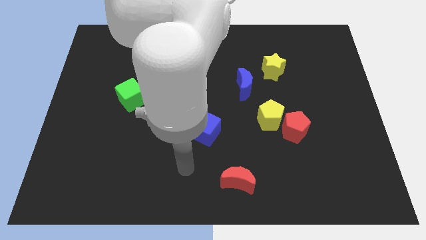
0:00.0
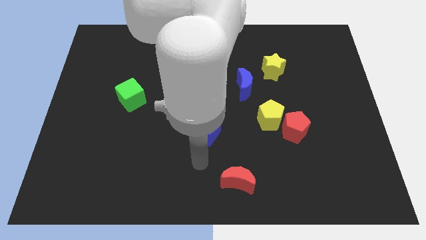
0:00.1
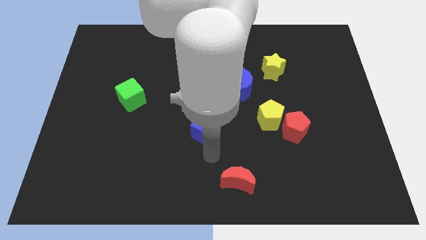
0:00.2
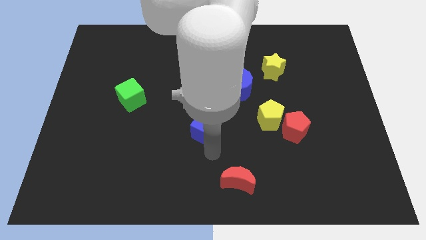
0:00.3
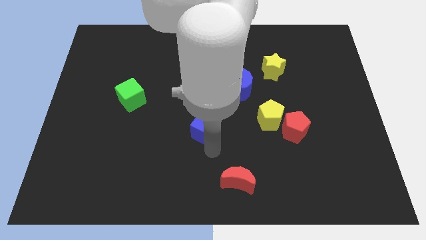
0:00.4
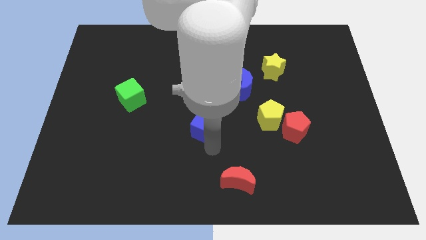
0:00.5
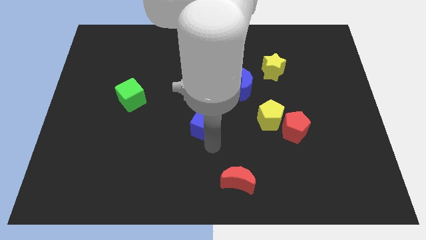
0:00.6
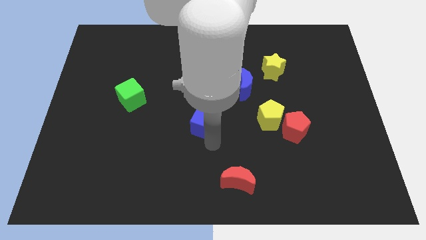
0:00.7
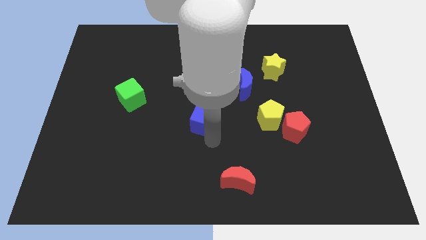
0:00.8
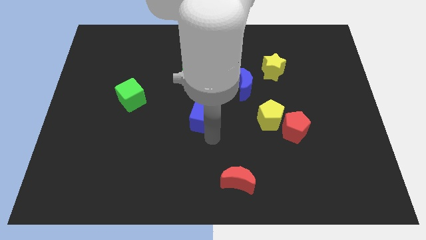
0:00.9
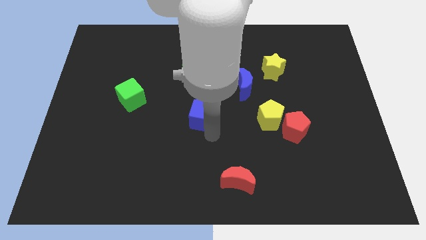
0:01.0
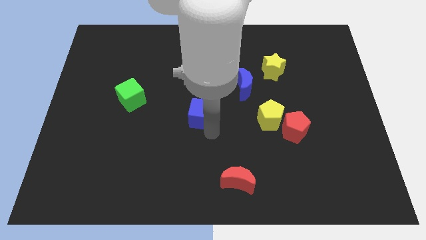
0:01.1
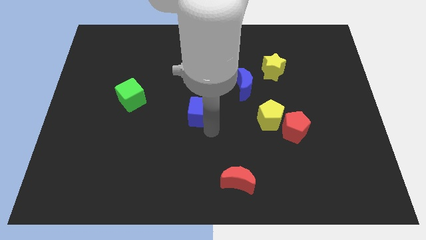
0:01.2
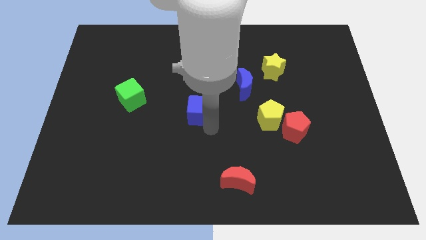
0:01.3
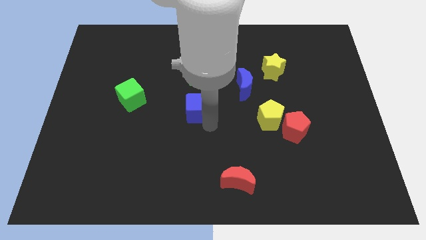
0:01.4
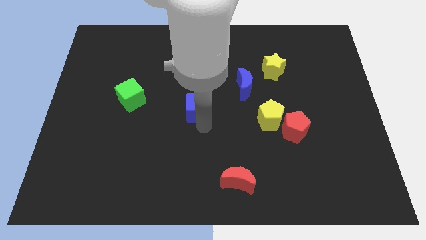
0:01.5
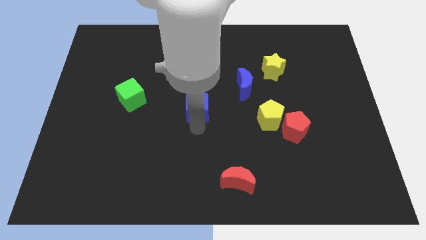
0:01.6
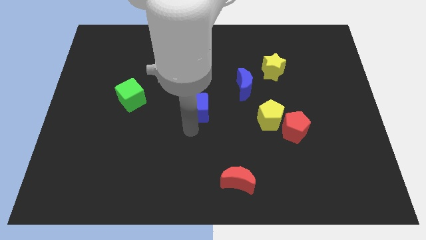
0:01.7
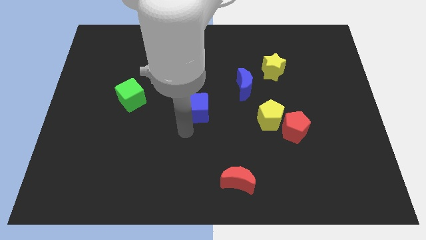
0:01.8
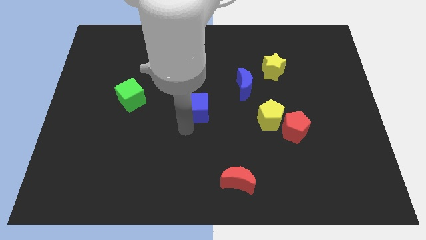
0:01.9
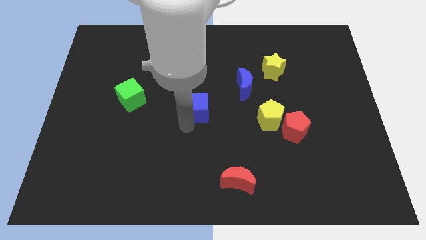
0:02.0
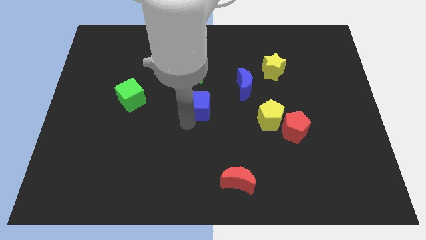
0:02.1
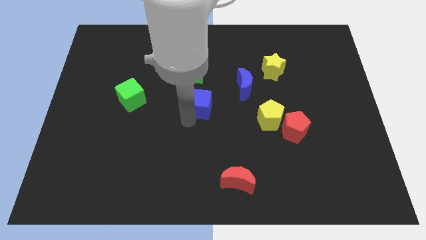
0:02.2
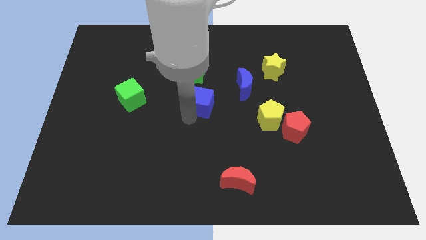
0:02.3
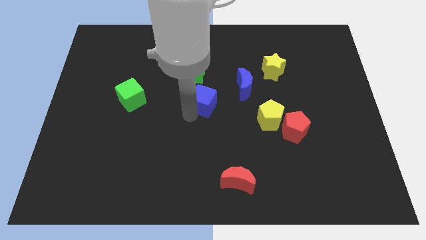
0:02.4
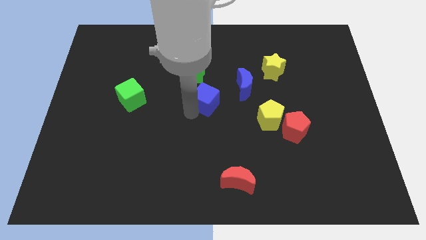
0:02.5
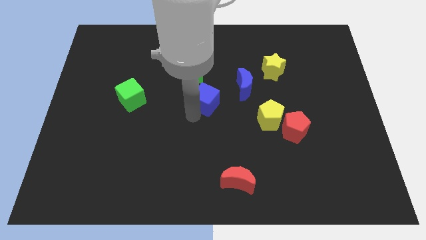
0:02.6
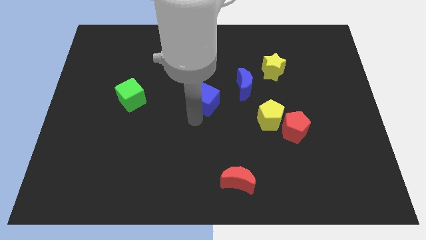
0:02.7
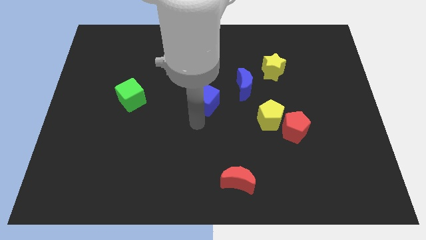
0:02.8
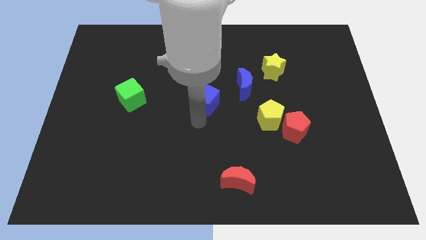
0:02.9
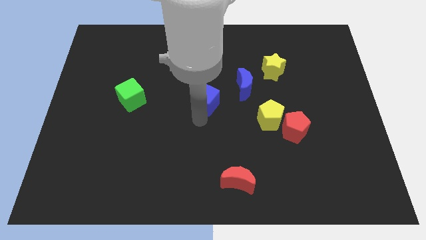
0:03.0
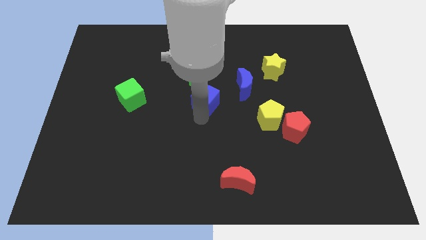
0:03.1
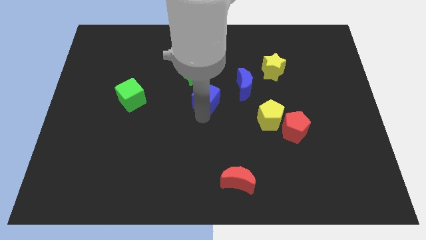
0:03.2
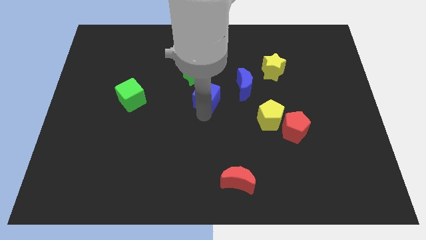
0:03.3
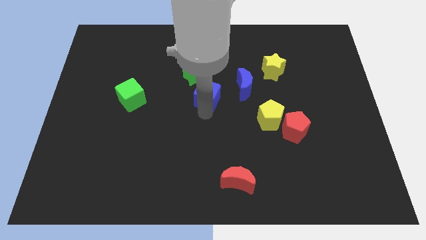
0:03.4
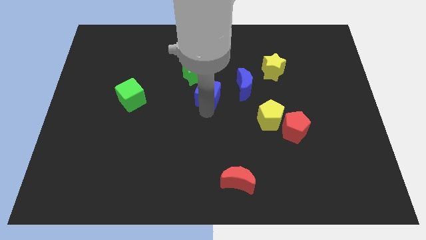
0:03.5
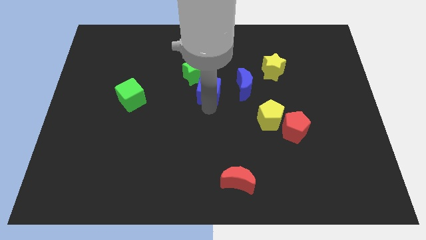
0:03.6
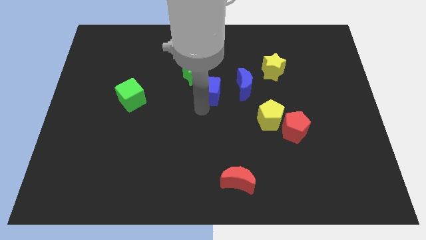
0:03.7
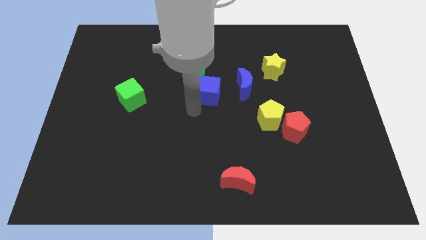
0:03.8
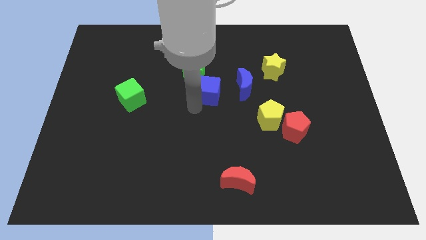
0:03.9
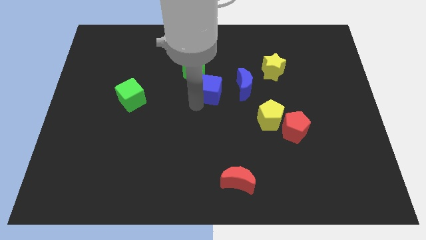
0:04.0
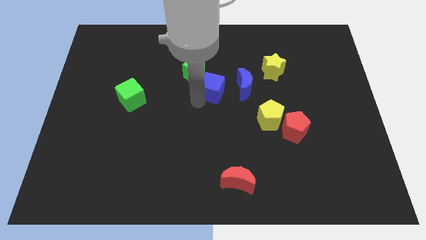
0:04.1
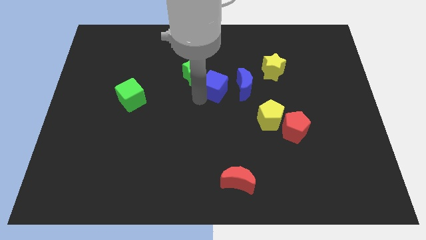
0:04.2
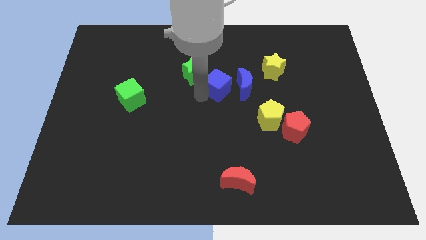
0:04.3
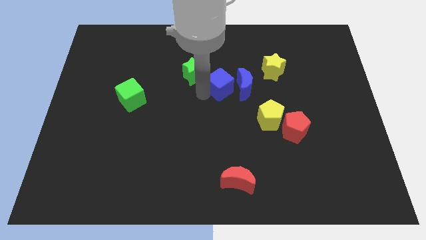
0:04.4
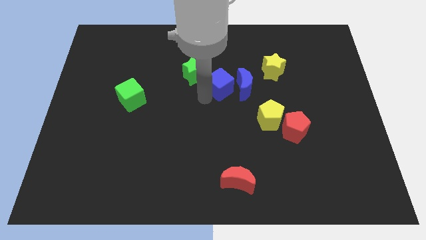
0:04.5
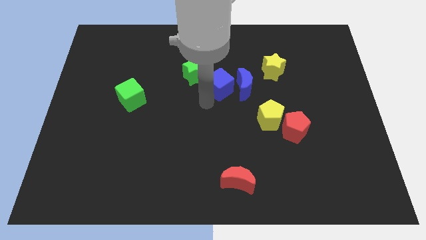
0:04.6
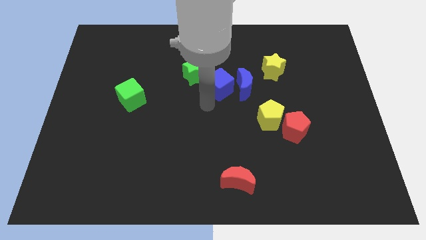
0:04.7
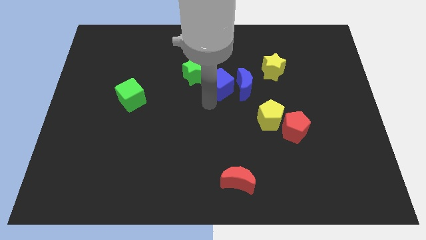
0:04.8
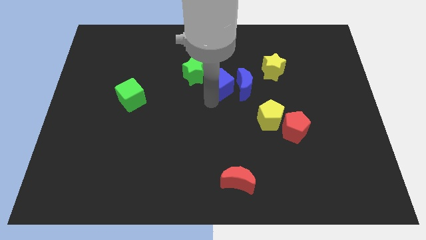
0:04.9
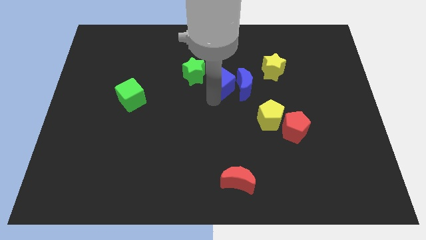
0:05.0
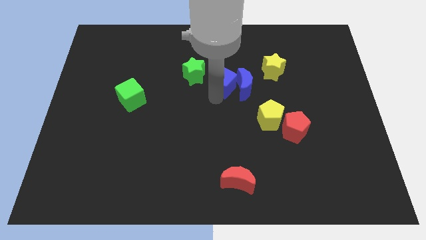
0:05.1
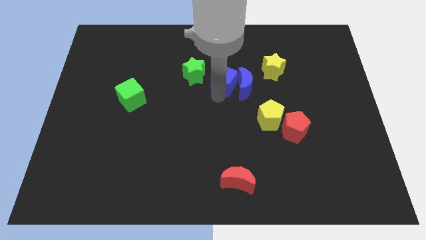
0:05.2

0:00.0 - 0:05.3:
slide the blue cube to the left of the yellow star

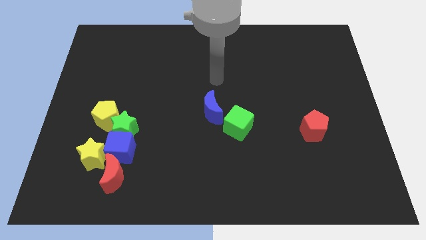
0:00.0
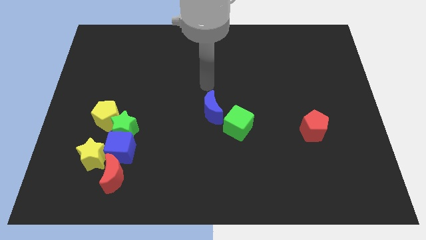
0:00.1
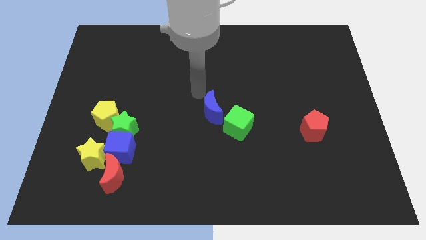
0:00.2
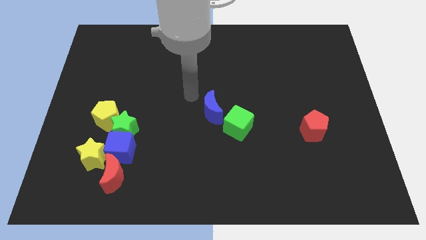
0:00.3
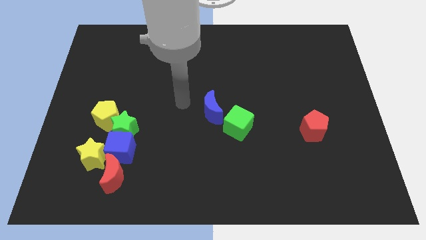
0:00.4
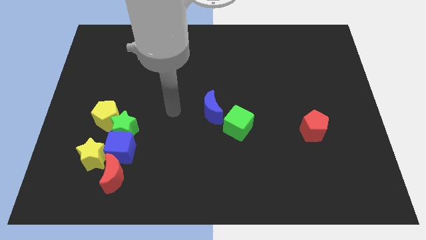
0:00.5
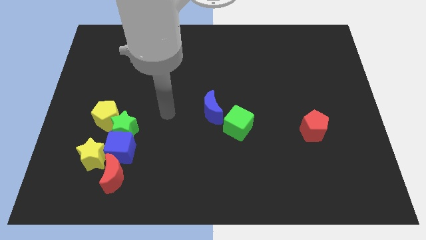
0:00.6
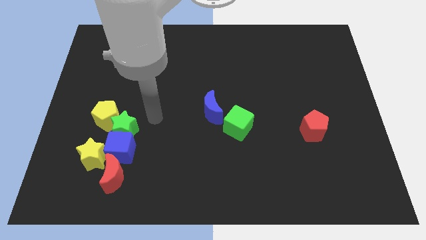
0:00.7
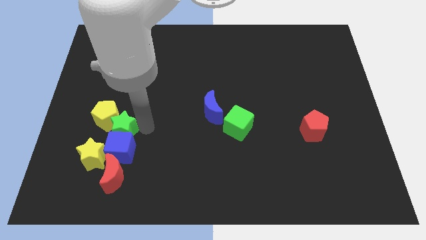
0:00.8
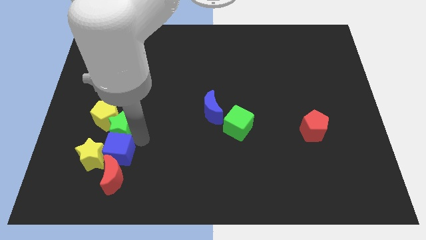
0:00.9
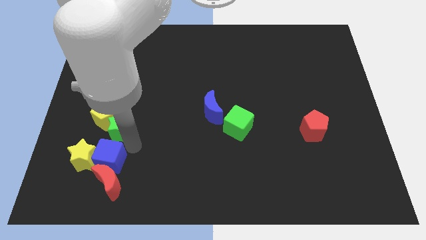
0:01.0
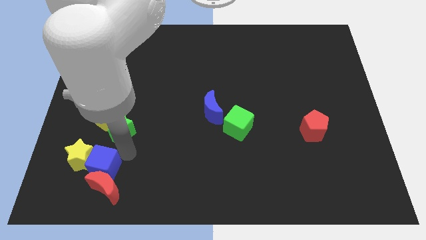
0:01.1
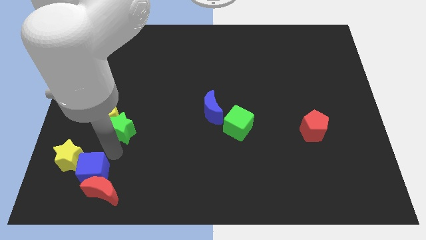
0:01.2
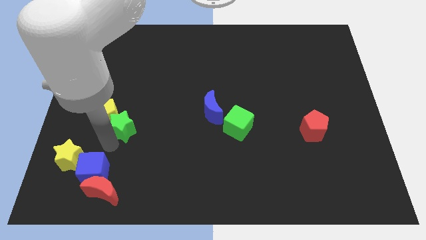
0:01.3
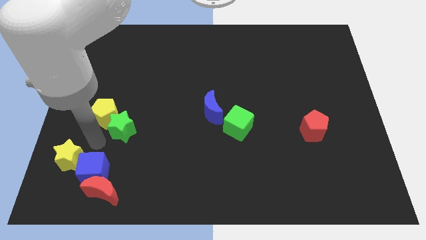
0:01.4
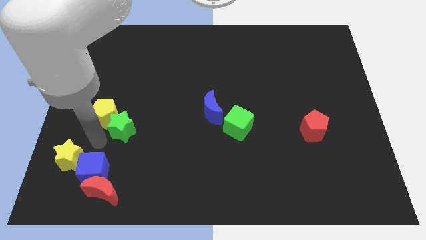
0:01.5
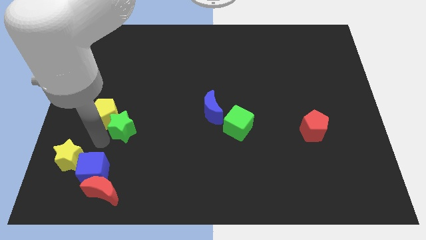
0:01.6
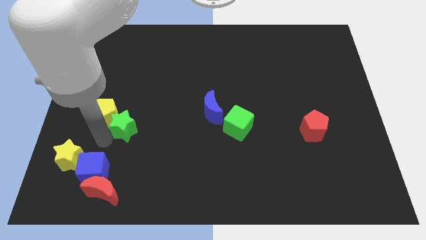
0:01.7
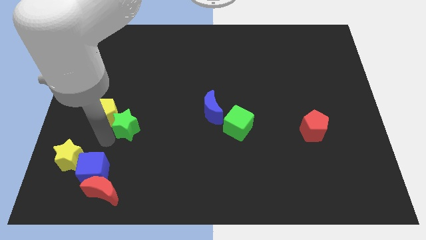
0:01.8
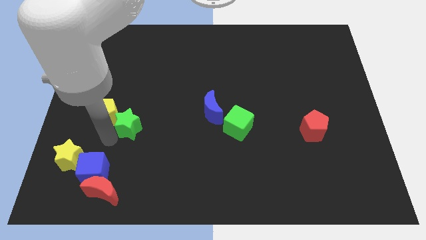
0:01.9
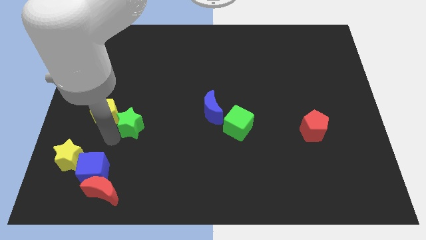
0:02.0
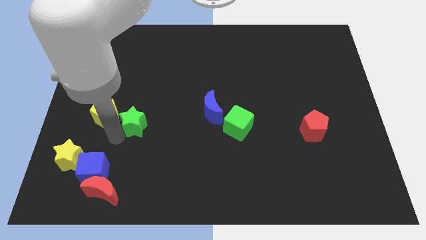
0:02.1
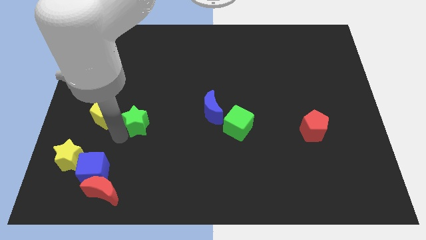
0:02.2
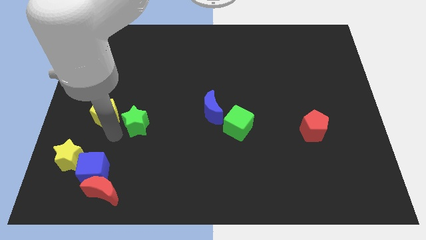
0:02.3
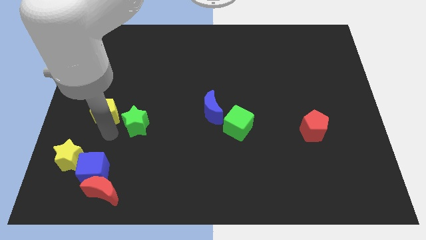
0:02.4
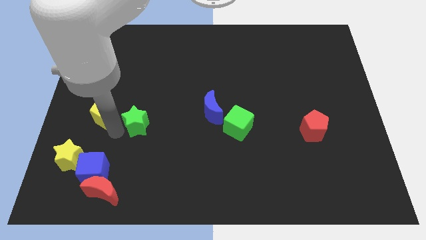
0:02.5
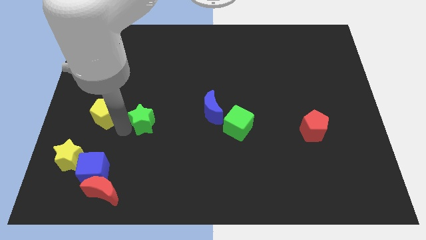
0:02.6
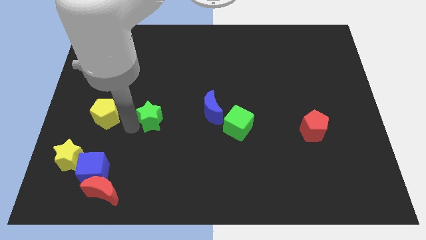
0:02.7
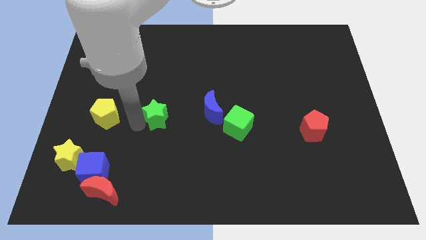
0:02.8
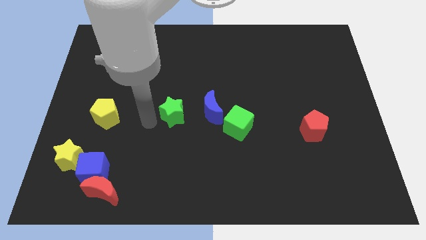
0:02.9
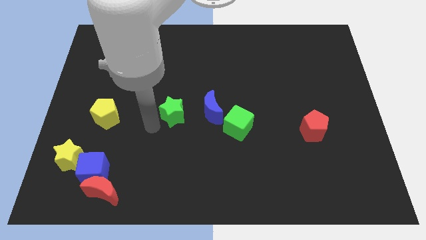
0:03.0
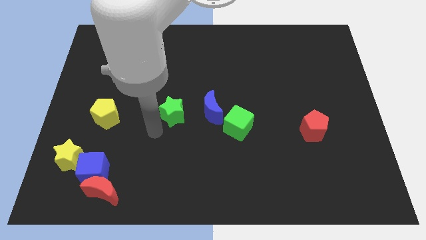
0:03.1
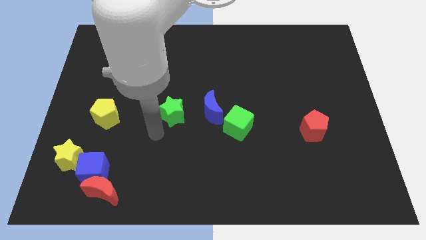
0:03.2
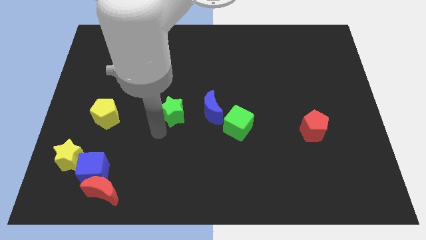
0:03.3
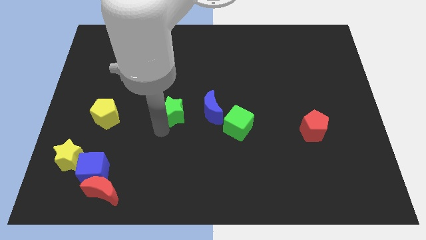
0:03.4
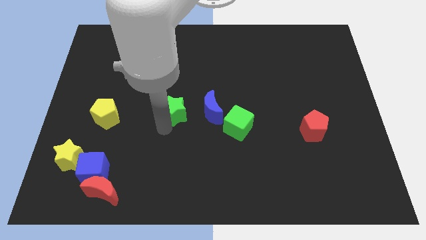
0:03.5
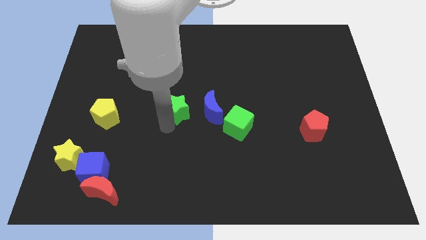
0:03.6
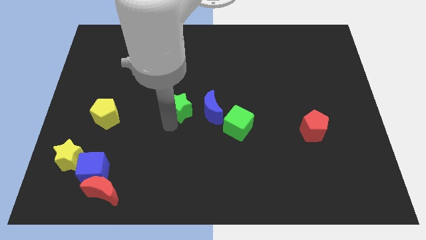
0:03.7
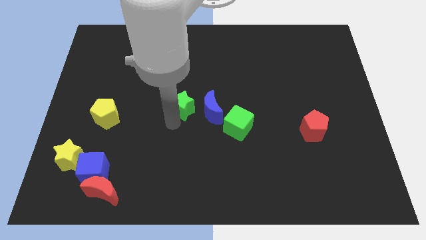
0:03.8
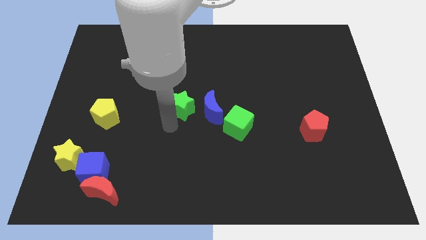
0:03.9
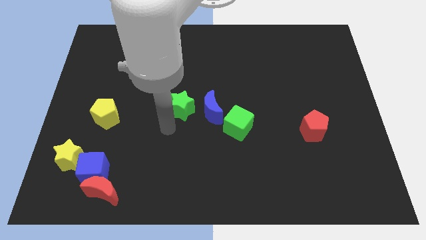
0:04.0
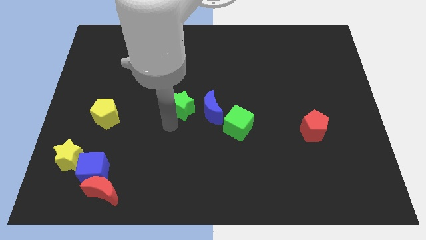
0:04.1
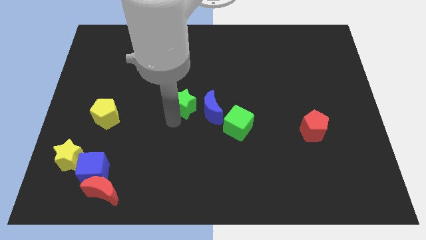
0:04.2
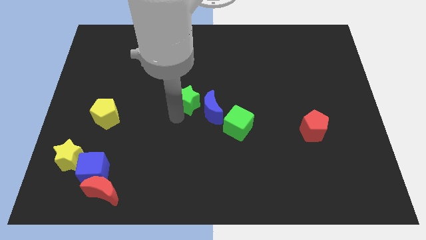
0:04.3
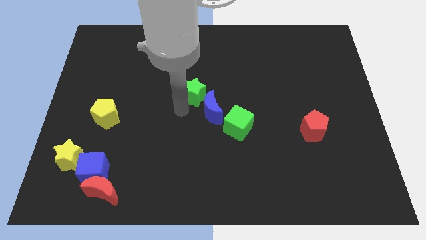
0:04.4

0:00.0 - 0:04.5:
put the green star above the blue moon
